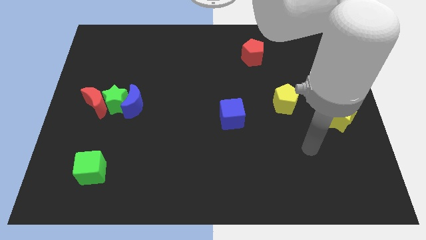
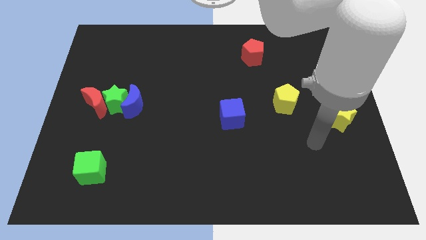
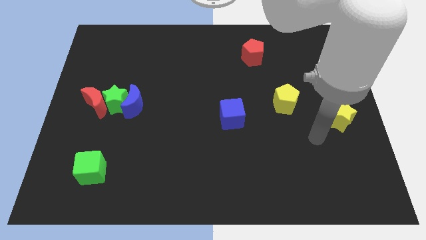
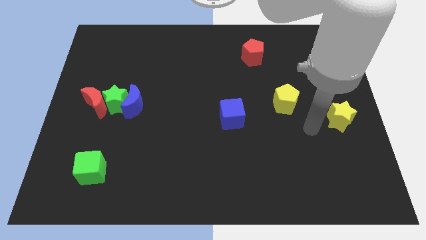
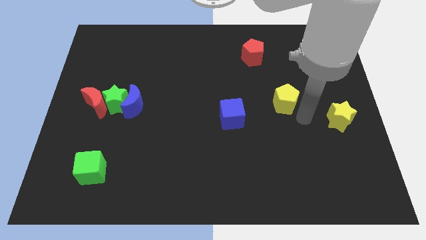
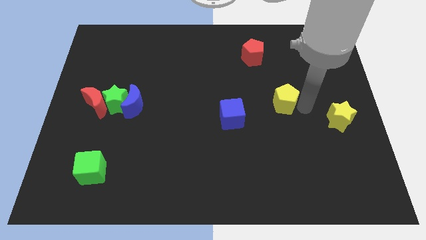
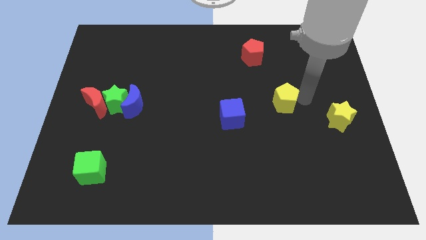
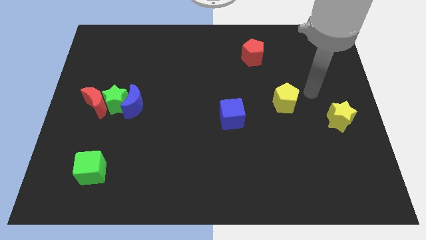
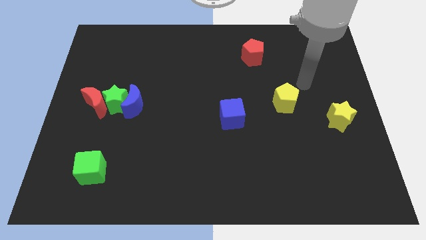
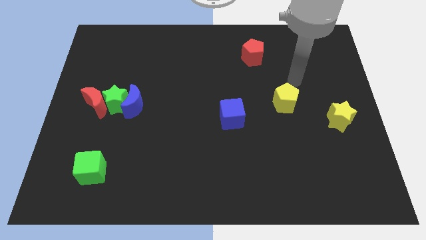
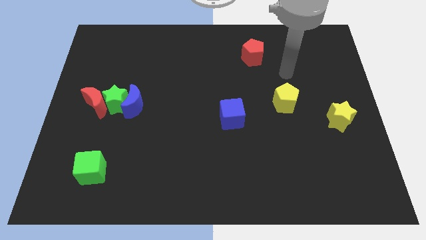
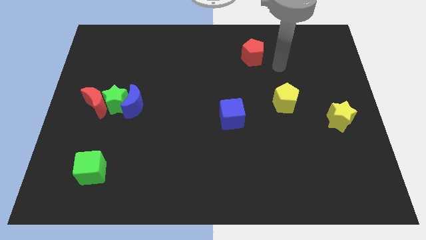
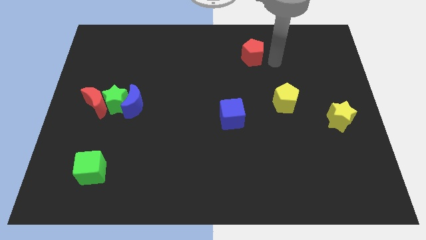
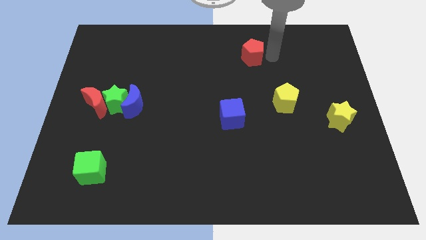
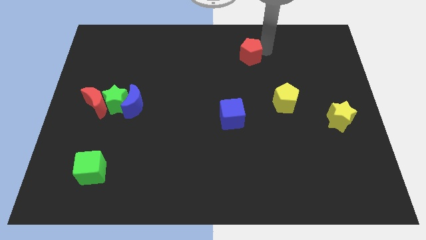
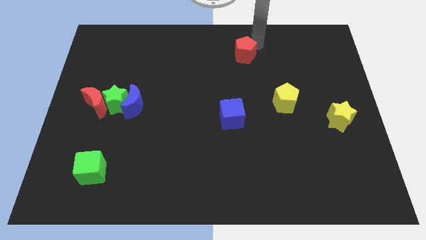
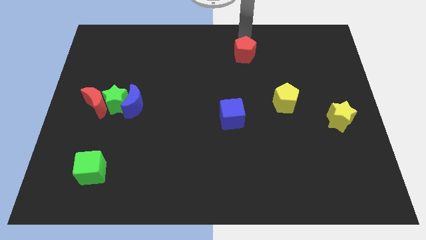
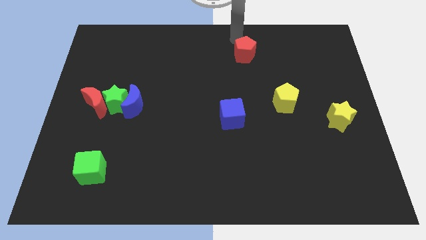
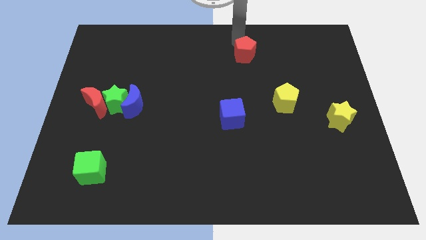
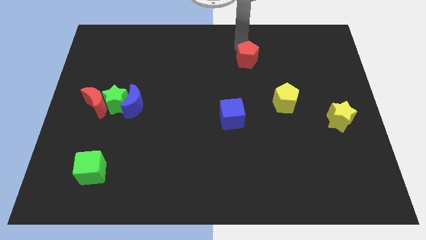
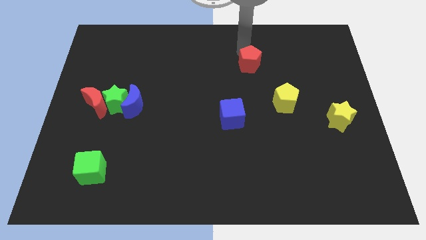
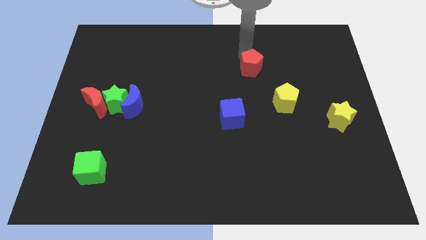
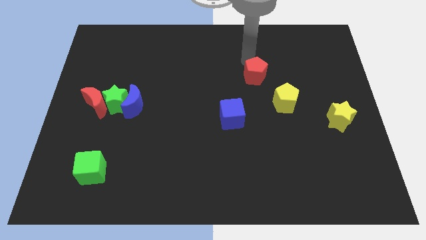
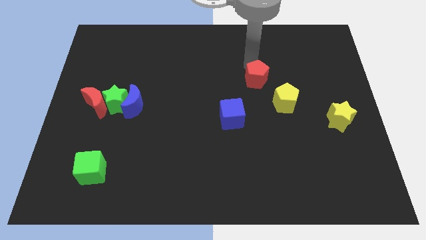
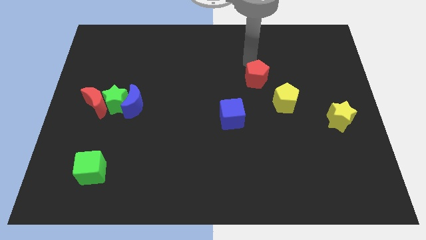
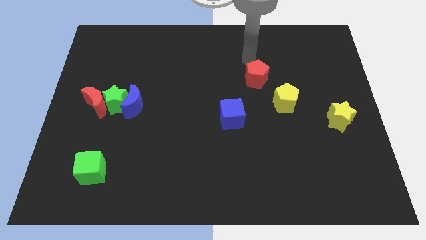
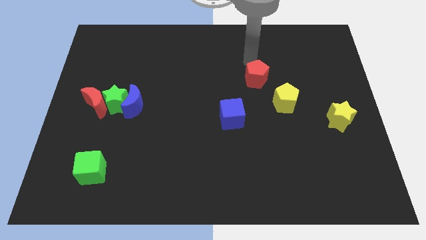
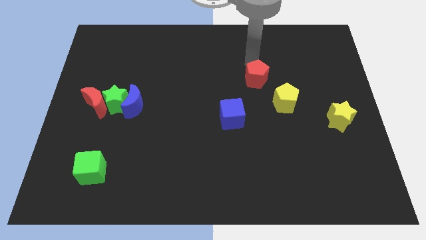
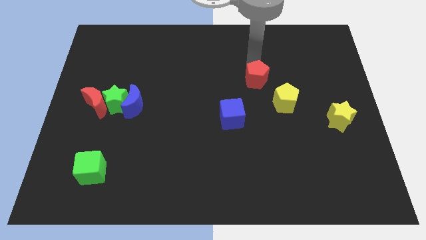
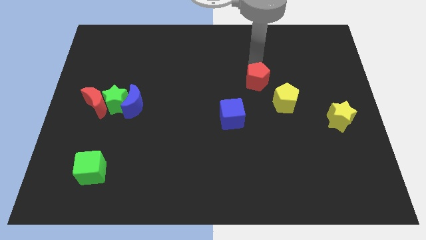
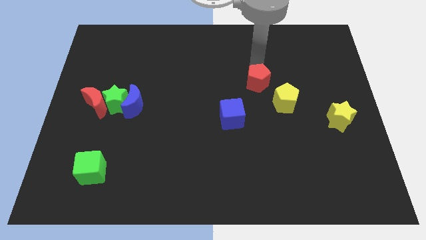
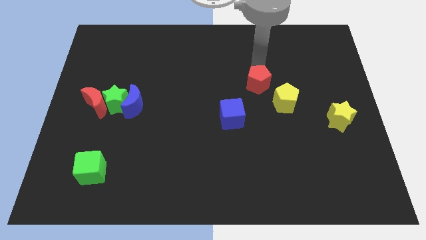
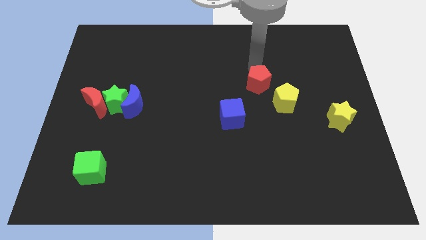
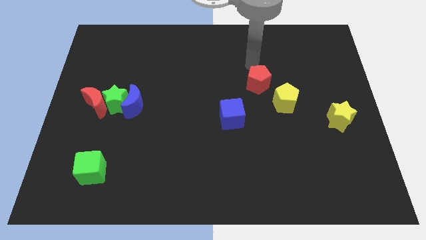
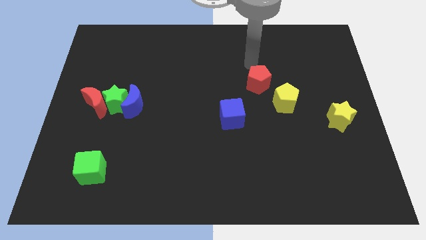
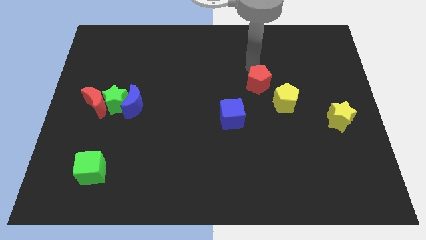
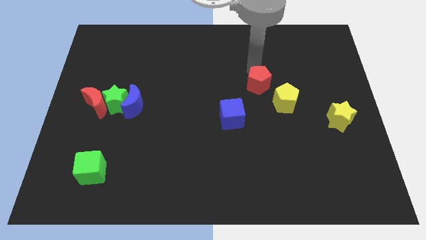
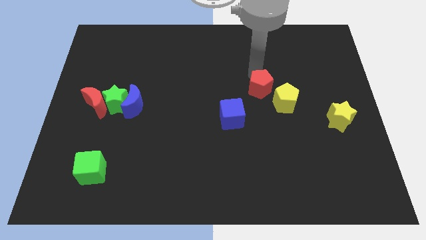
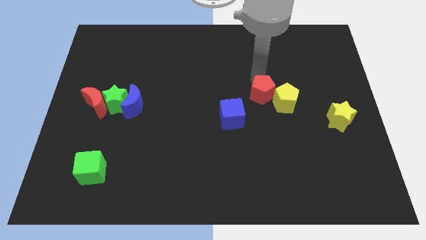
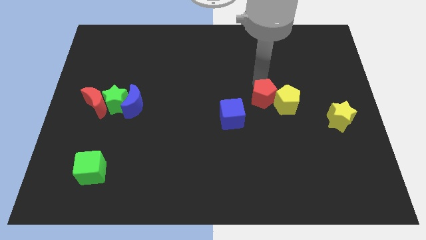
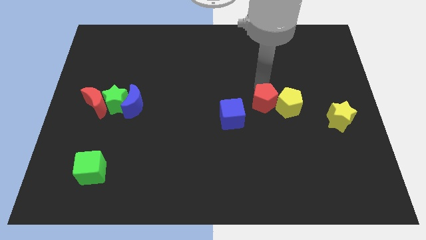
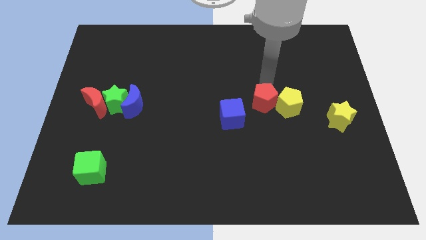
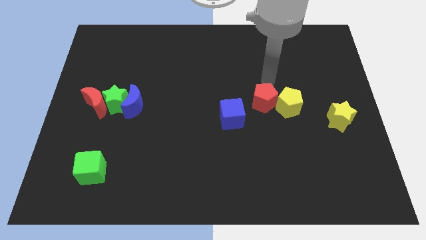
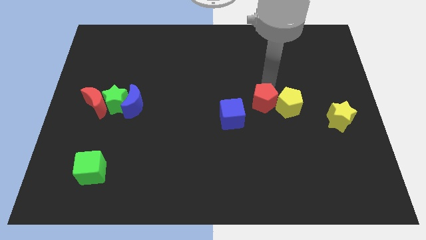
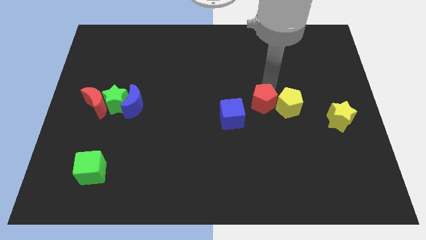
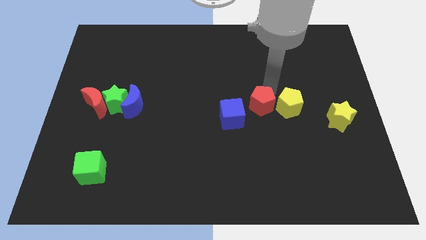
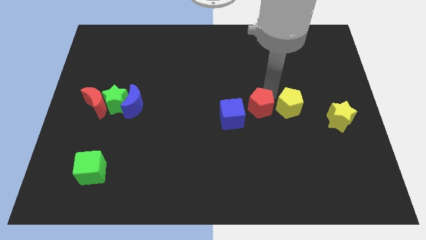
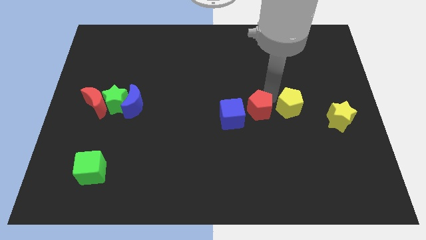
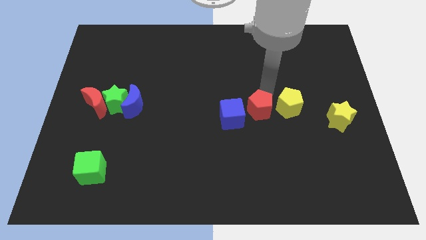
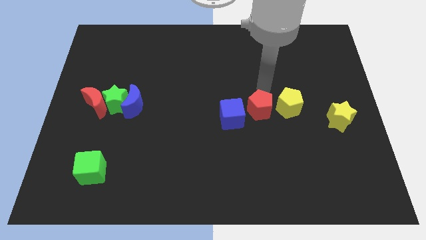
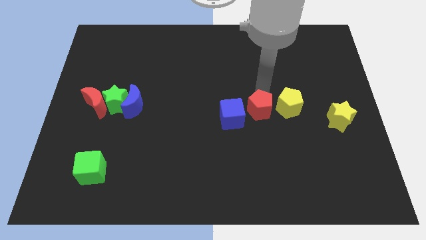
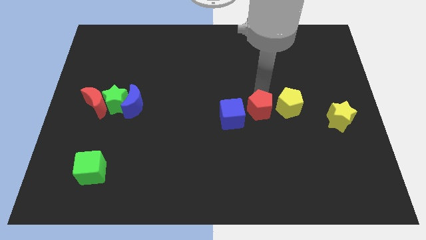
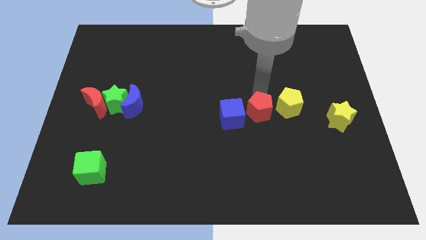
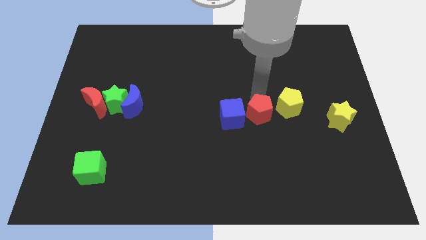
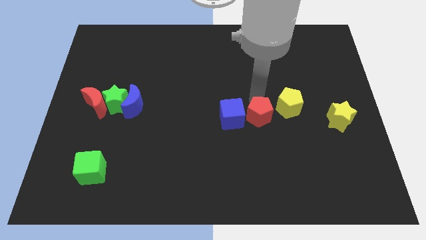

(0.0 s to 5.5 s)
push the red pentagon to the bottom right side of the blue cube

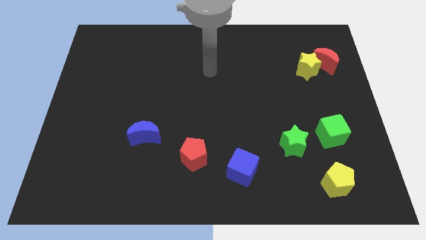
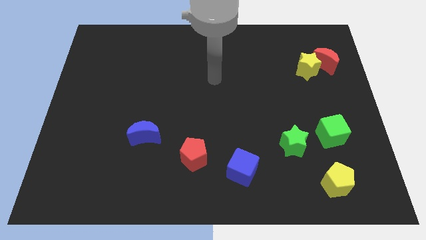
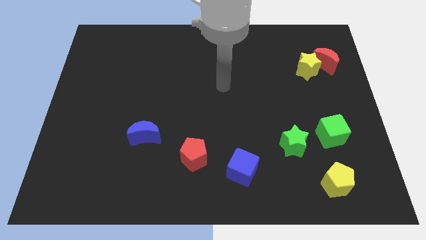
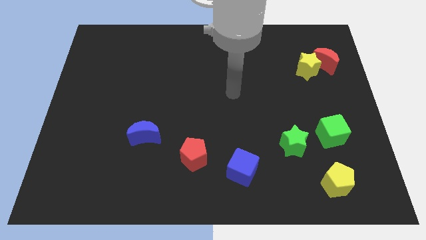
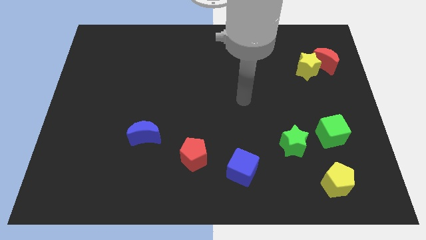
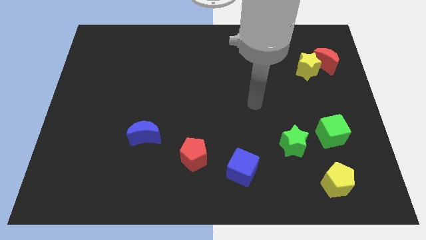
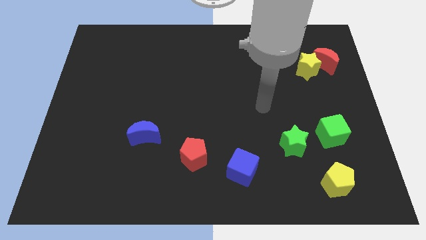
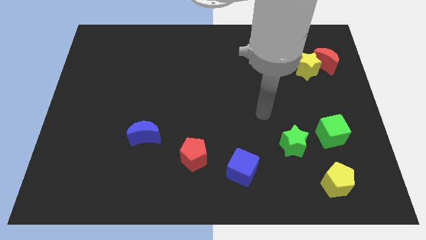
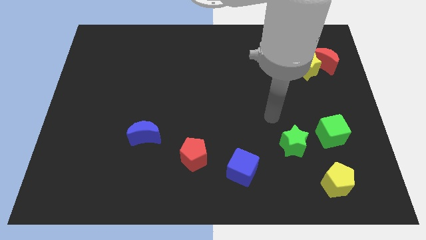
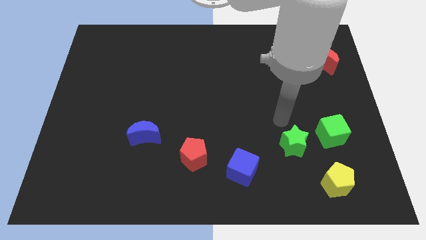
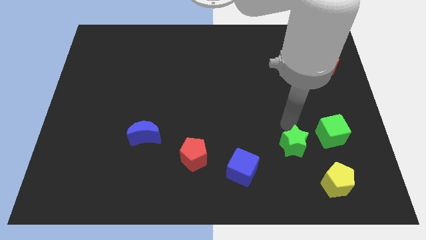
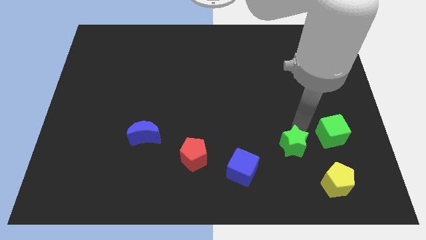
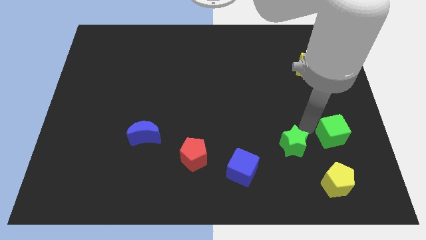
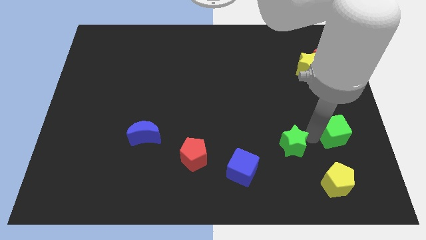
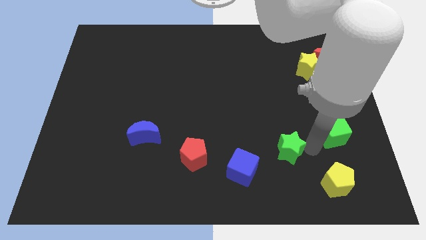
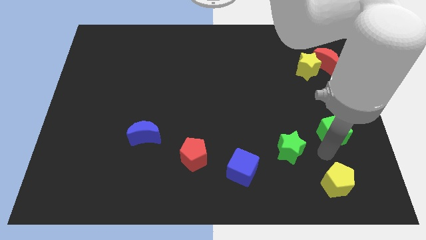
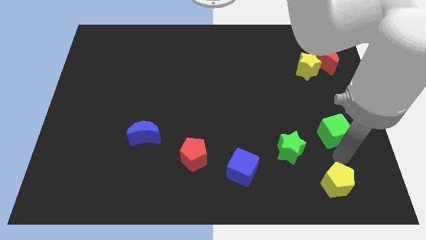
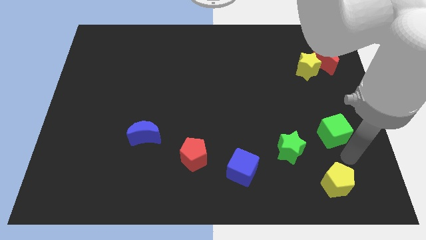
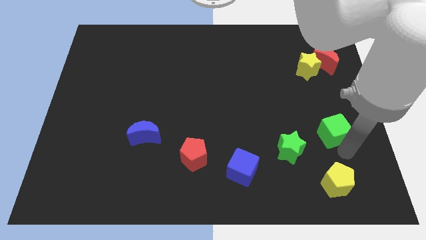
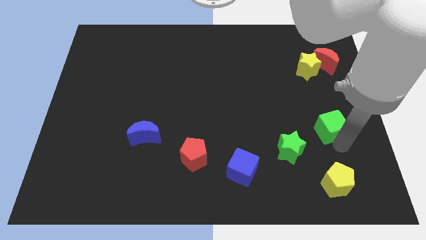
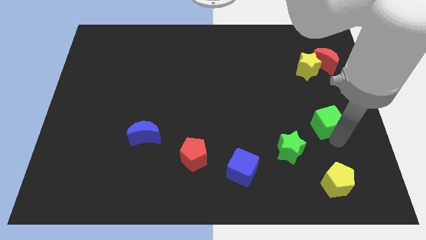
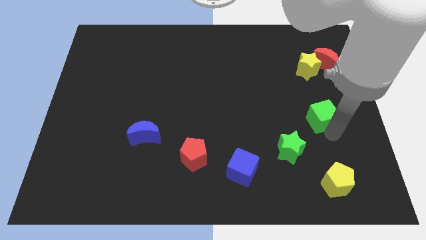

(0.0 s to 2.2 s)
move the green cube below the yellow star
